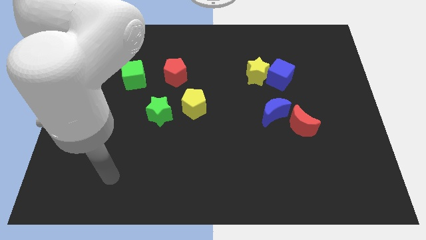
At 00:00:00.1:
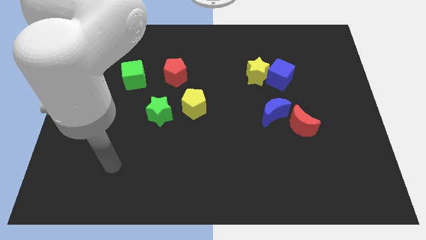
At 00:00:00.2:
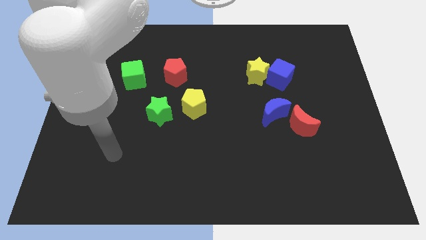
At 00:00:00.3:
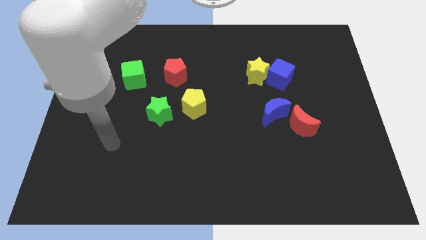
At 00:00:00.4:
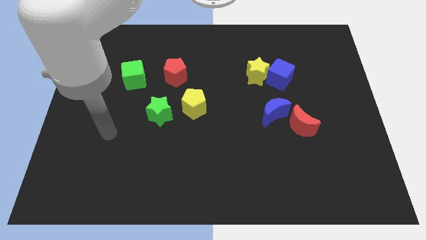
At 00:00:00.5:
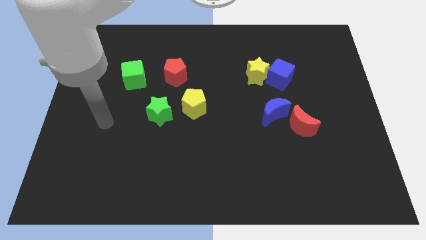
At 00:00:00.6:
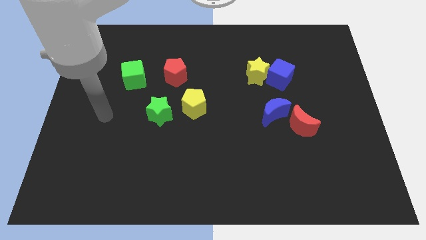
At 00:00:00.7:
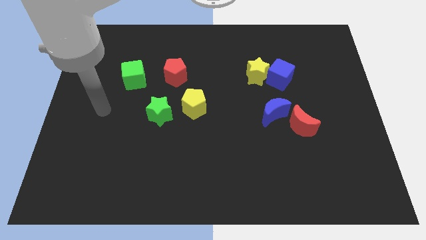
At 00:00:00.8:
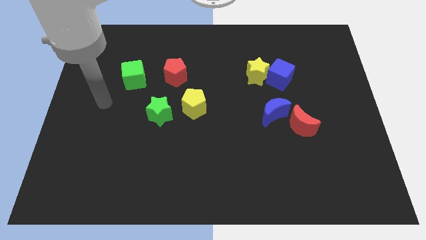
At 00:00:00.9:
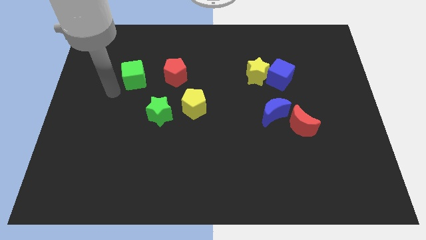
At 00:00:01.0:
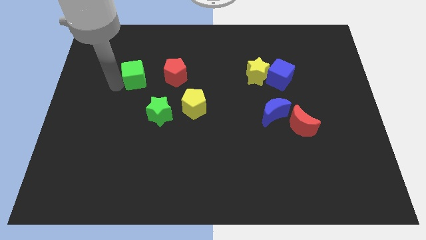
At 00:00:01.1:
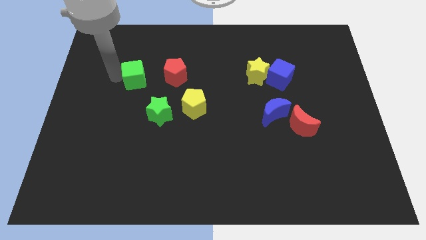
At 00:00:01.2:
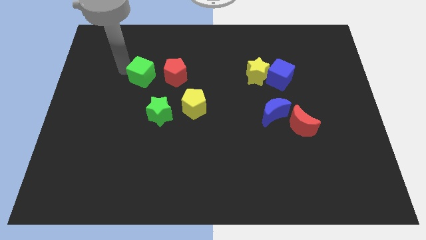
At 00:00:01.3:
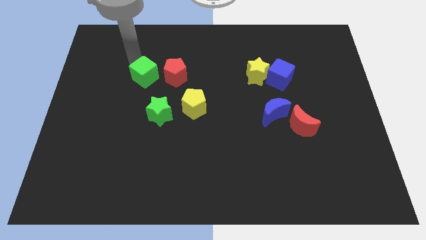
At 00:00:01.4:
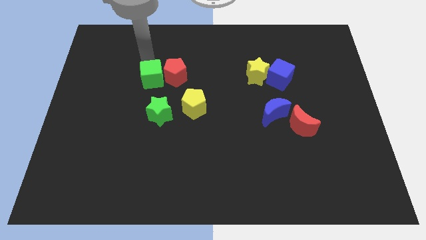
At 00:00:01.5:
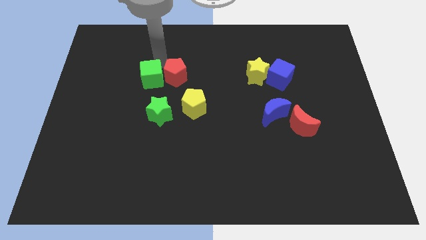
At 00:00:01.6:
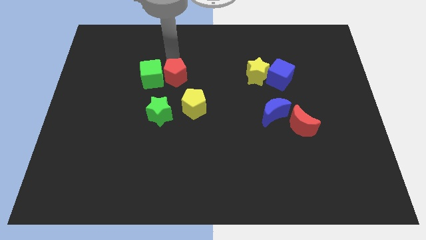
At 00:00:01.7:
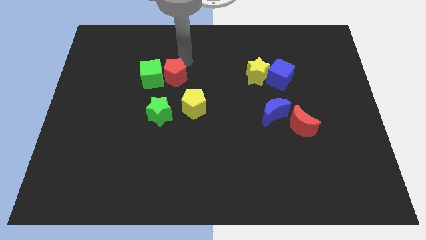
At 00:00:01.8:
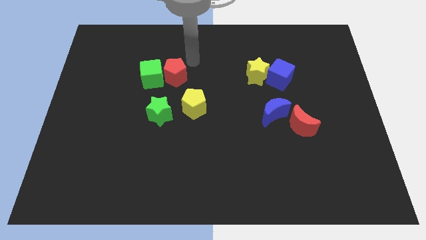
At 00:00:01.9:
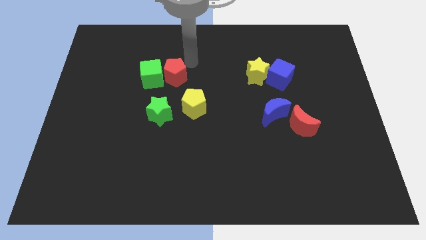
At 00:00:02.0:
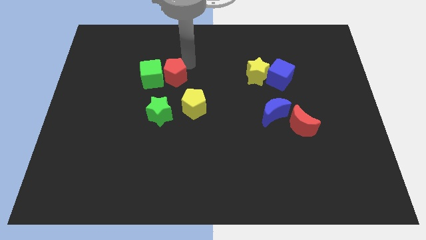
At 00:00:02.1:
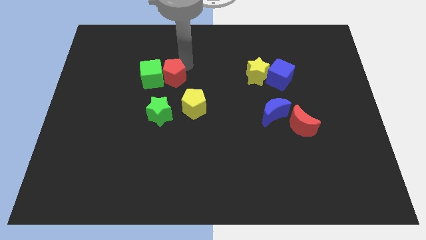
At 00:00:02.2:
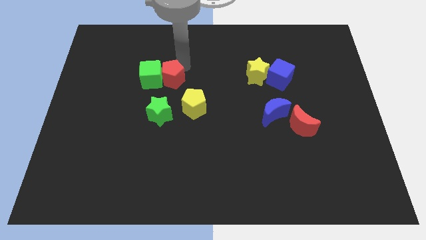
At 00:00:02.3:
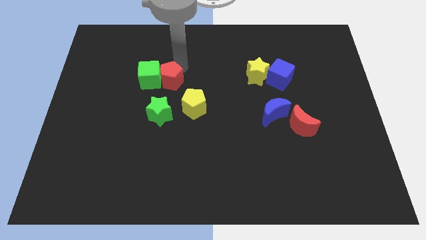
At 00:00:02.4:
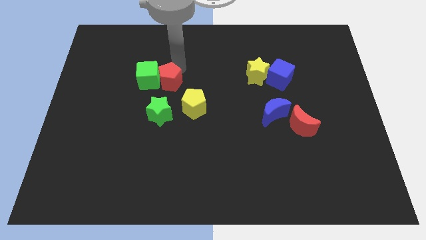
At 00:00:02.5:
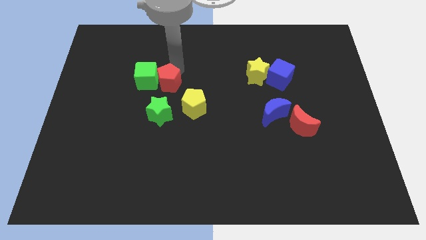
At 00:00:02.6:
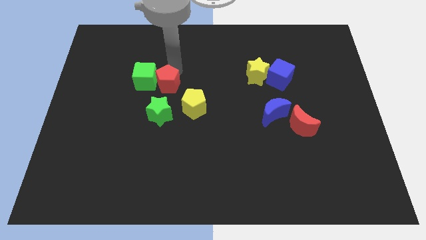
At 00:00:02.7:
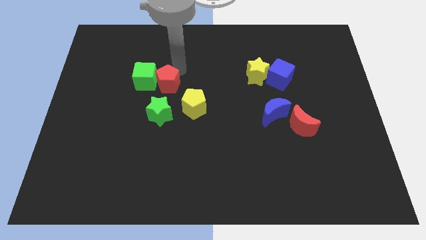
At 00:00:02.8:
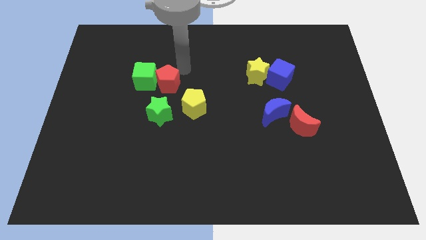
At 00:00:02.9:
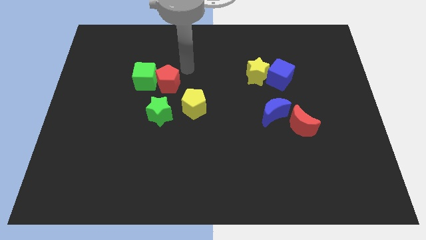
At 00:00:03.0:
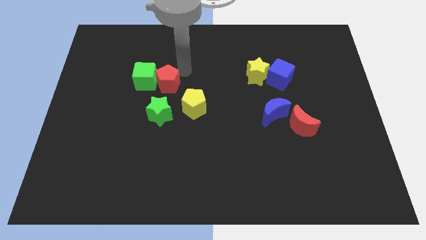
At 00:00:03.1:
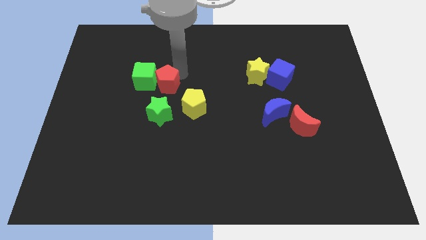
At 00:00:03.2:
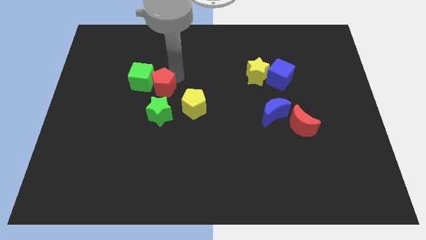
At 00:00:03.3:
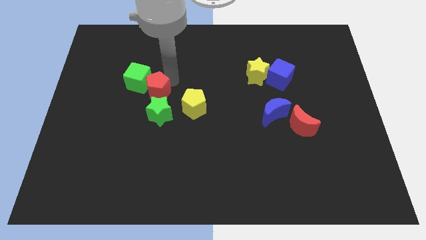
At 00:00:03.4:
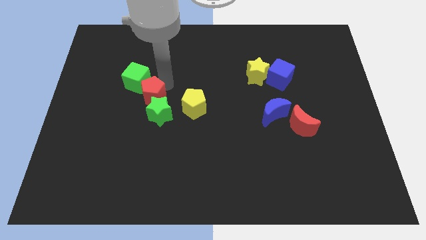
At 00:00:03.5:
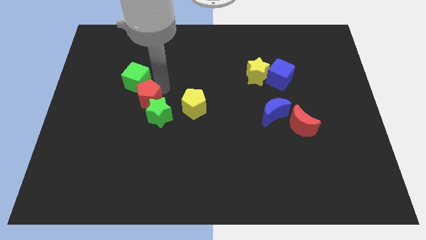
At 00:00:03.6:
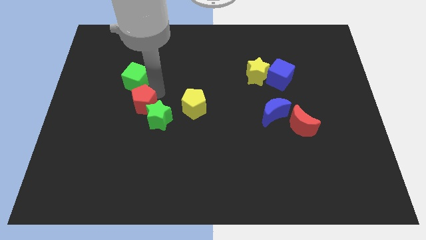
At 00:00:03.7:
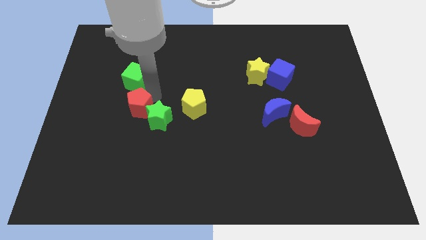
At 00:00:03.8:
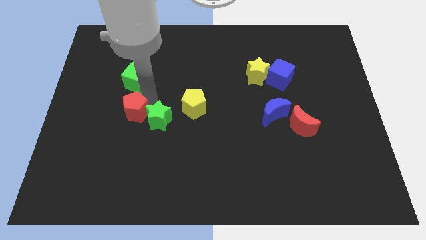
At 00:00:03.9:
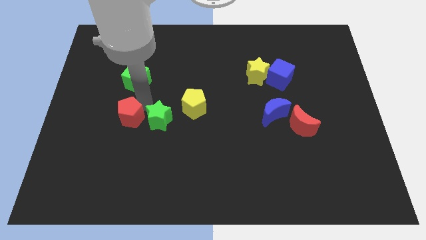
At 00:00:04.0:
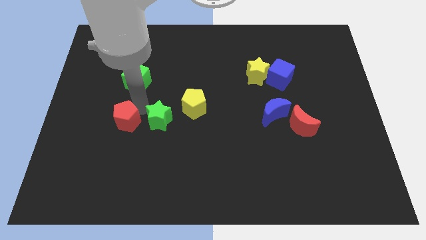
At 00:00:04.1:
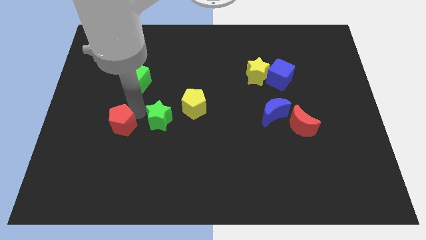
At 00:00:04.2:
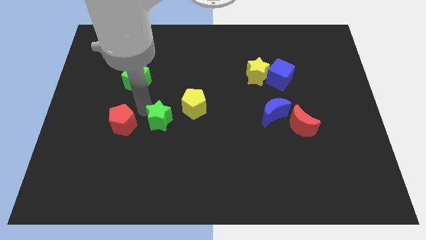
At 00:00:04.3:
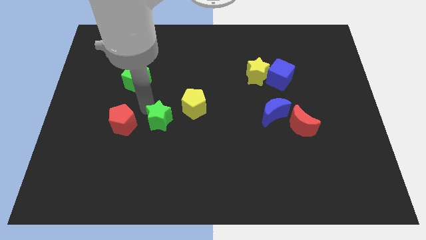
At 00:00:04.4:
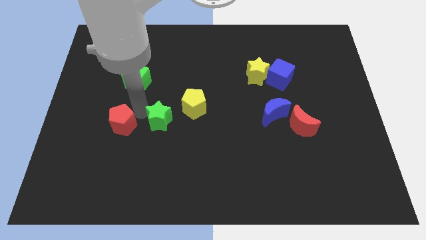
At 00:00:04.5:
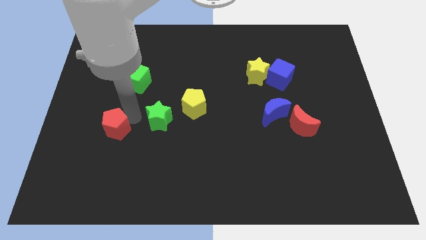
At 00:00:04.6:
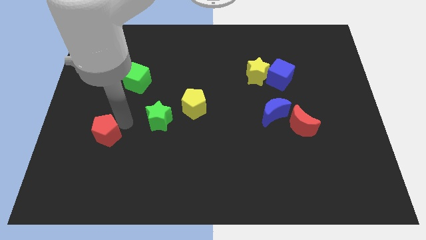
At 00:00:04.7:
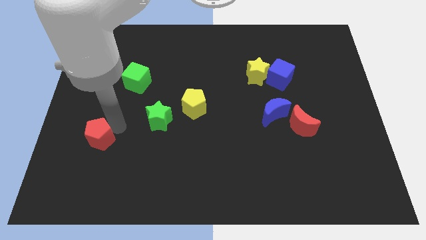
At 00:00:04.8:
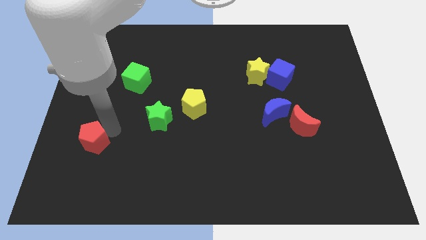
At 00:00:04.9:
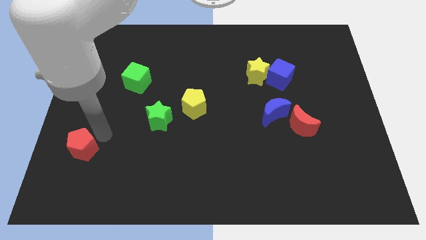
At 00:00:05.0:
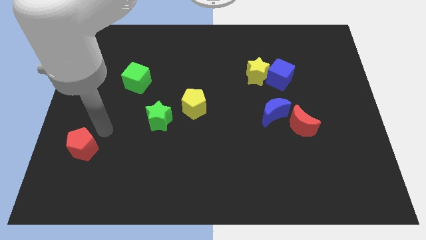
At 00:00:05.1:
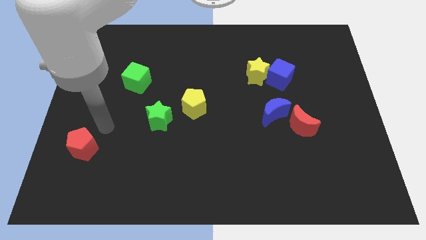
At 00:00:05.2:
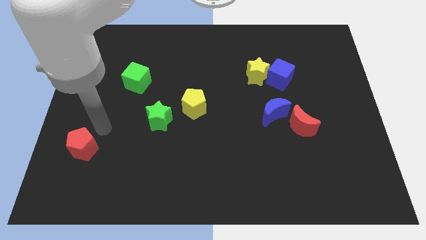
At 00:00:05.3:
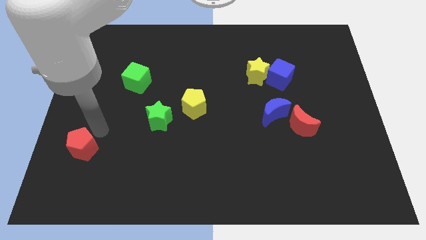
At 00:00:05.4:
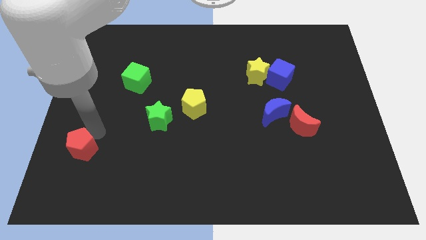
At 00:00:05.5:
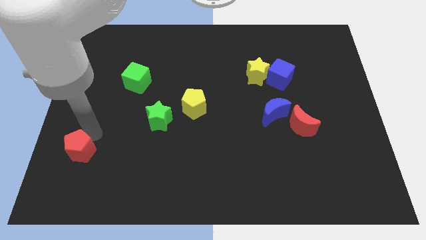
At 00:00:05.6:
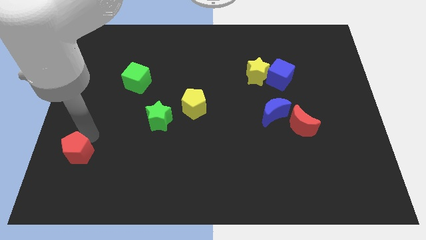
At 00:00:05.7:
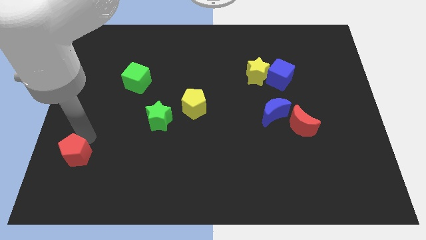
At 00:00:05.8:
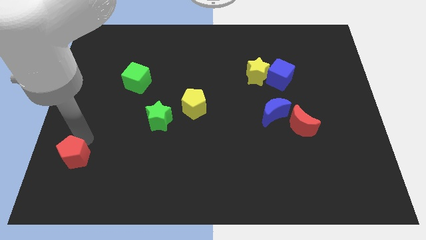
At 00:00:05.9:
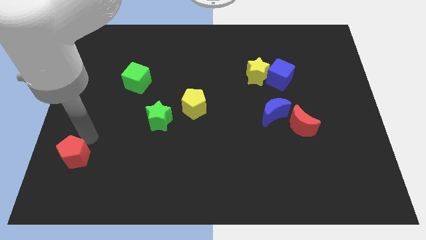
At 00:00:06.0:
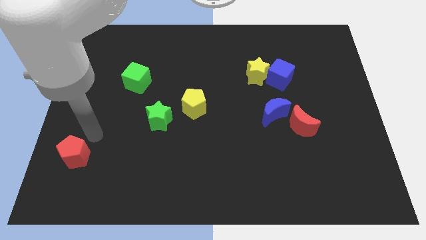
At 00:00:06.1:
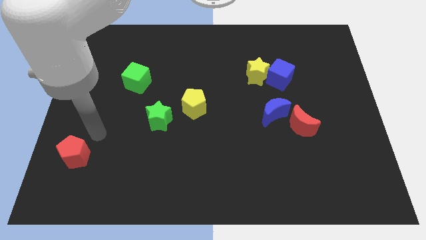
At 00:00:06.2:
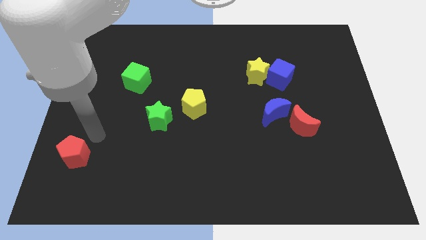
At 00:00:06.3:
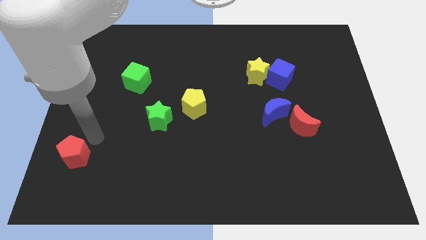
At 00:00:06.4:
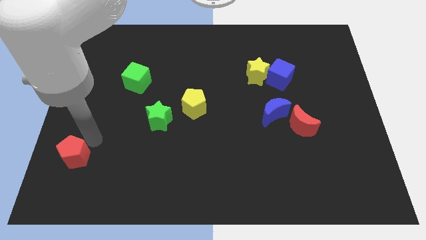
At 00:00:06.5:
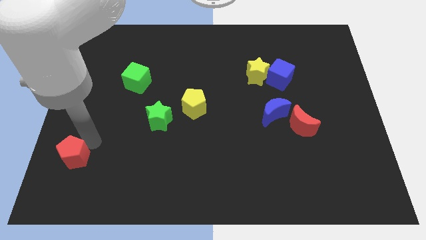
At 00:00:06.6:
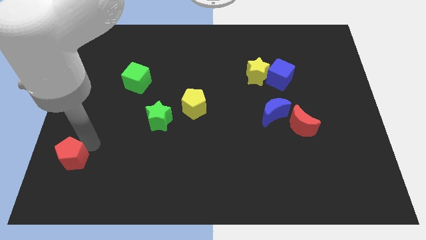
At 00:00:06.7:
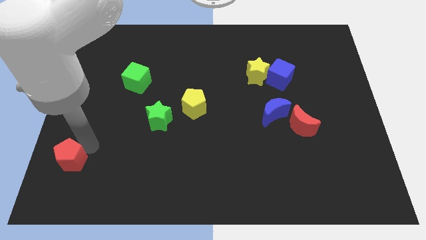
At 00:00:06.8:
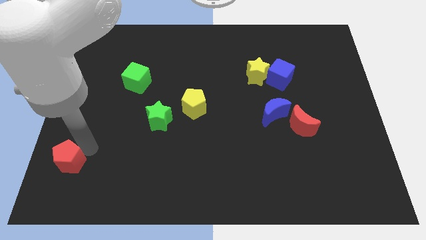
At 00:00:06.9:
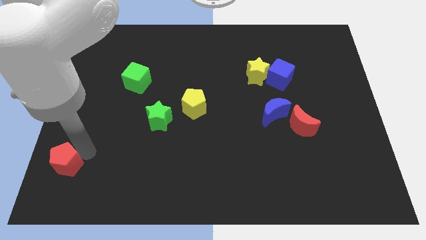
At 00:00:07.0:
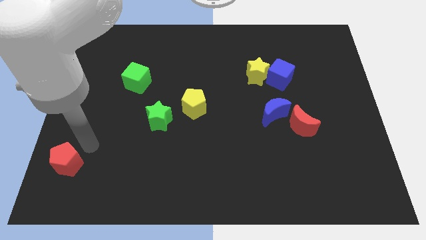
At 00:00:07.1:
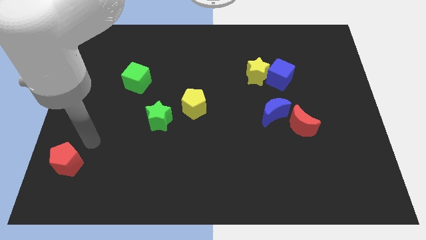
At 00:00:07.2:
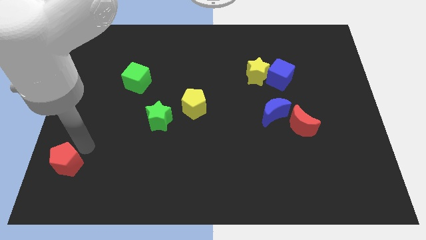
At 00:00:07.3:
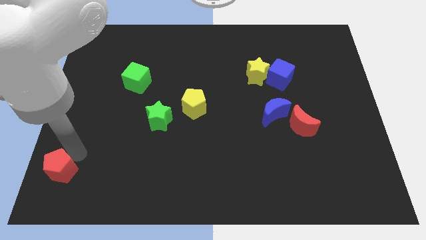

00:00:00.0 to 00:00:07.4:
slide the red pentagon to the lower left corner
